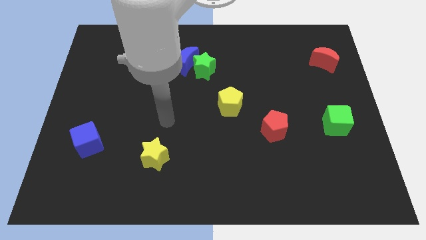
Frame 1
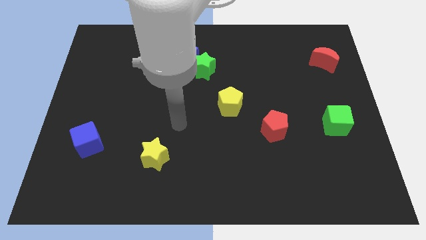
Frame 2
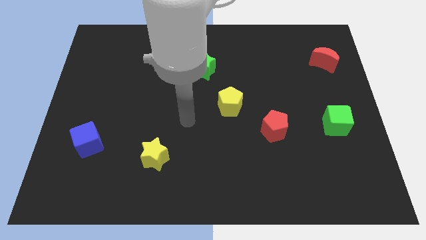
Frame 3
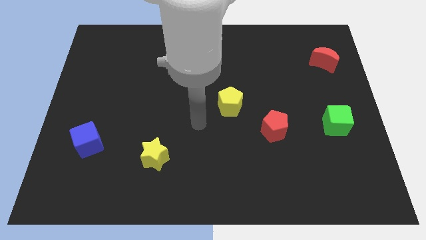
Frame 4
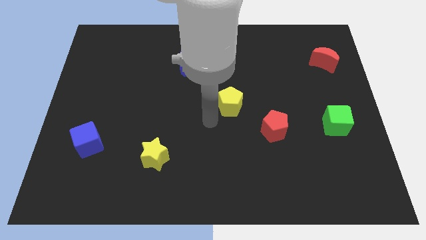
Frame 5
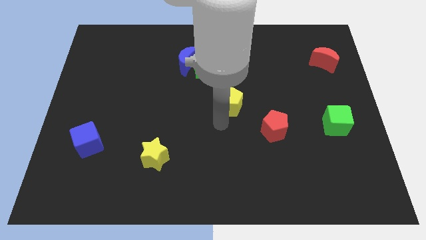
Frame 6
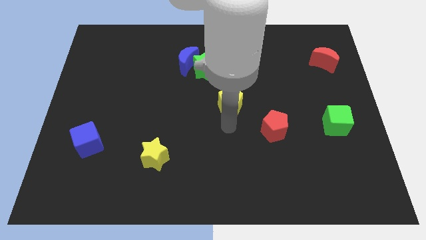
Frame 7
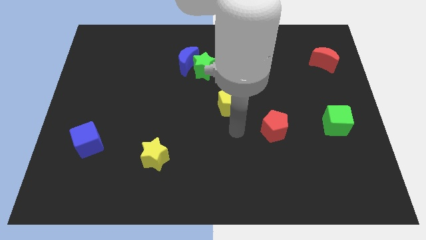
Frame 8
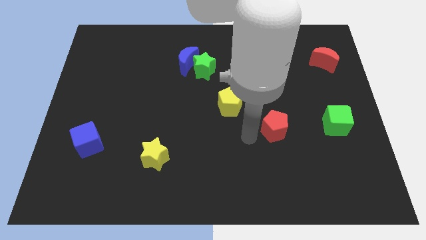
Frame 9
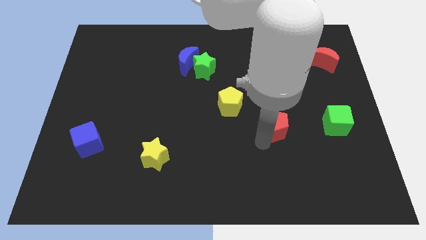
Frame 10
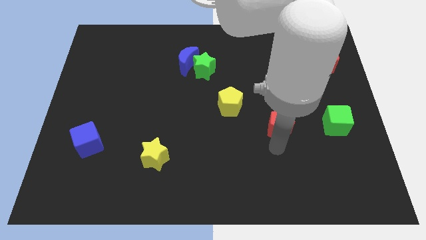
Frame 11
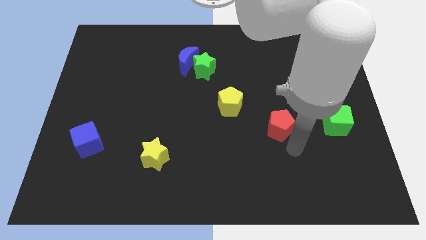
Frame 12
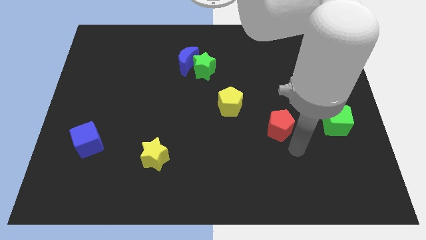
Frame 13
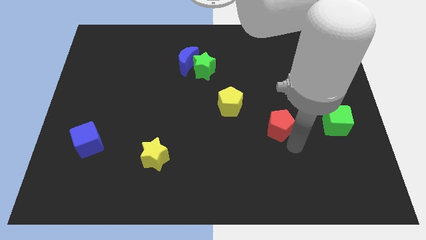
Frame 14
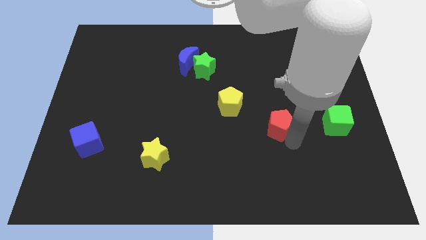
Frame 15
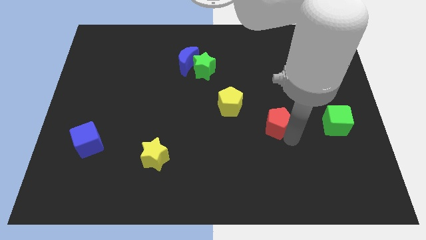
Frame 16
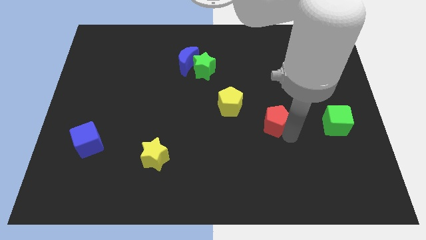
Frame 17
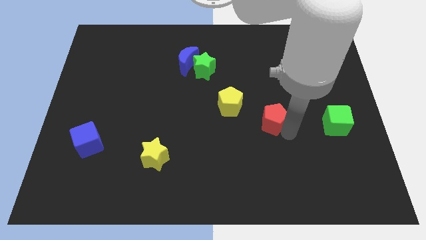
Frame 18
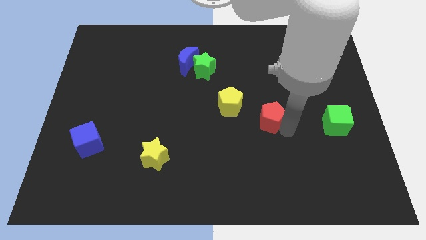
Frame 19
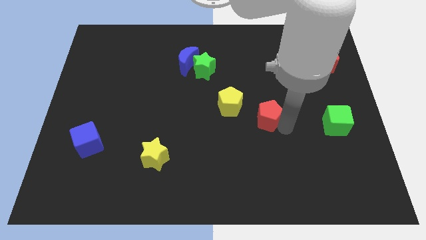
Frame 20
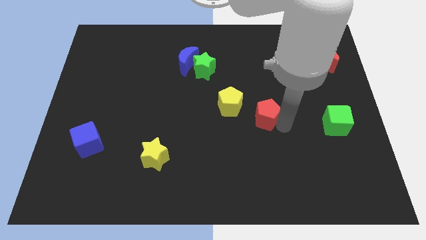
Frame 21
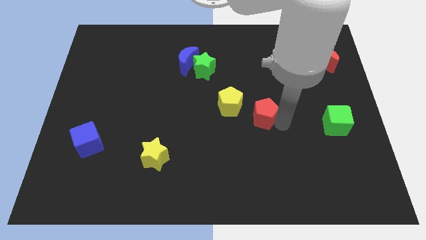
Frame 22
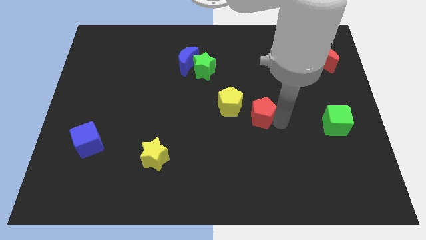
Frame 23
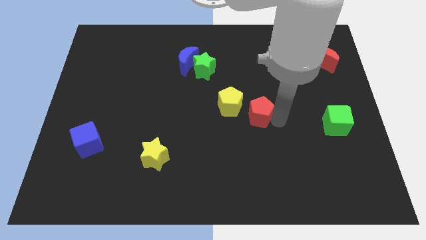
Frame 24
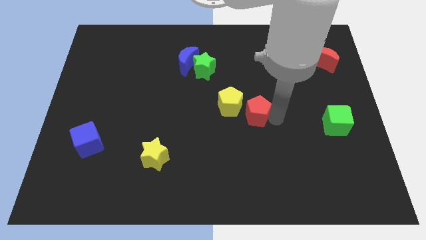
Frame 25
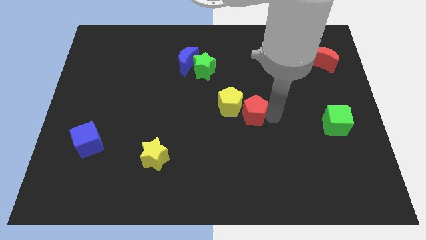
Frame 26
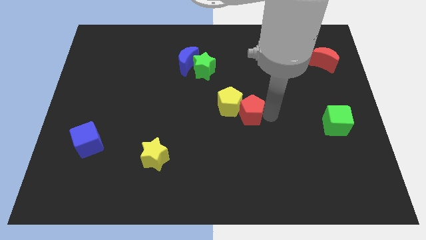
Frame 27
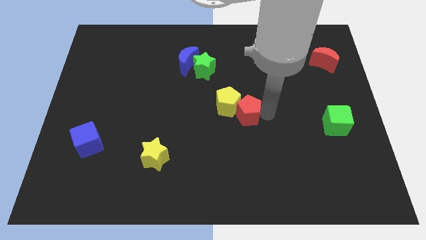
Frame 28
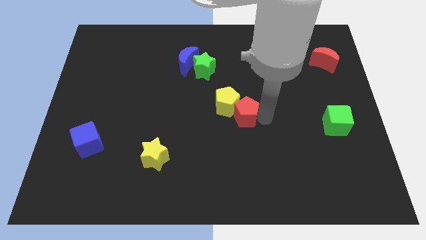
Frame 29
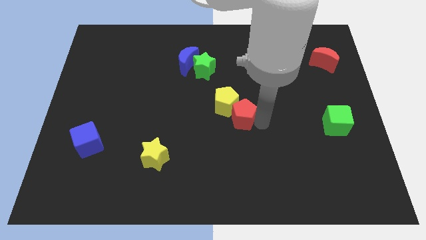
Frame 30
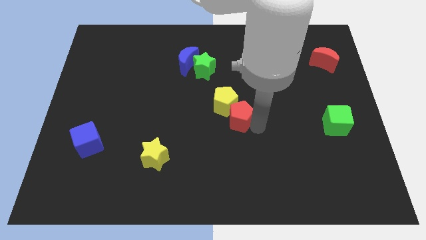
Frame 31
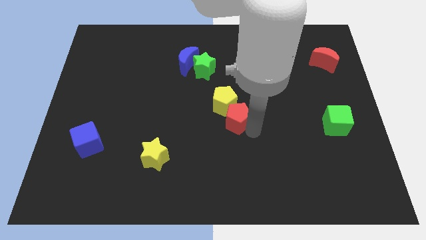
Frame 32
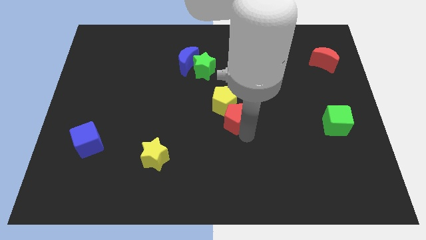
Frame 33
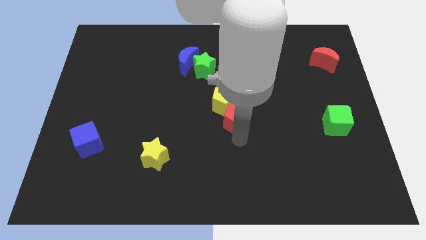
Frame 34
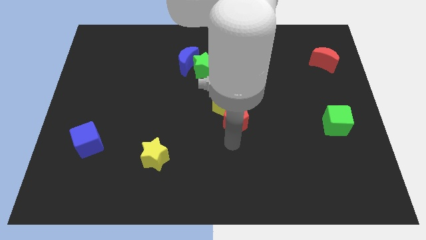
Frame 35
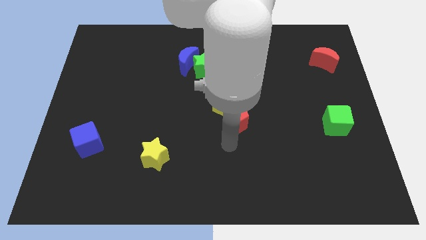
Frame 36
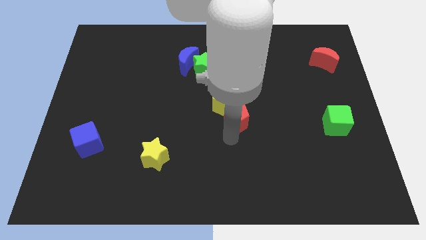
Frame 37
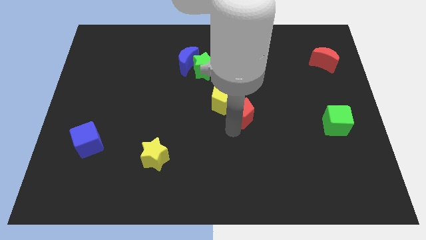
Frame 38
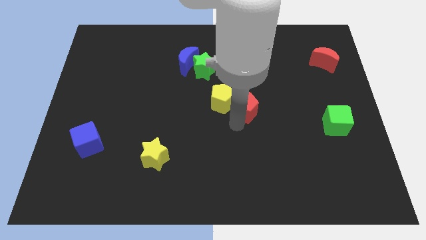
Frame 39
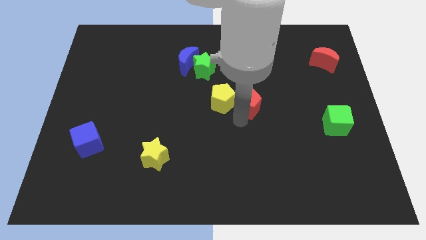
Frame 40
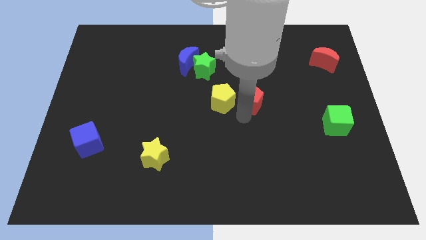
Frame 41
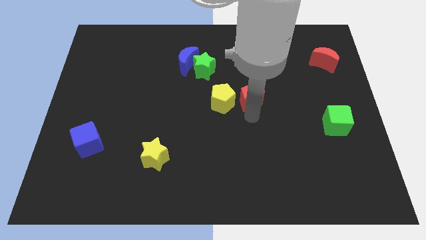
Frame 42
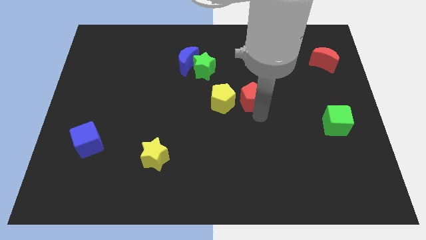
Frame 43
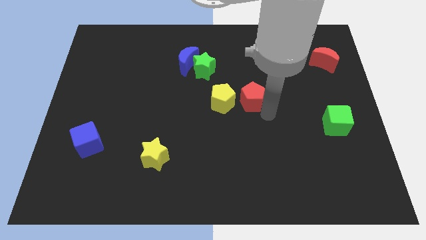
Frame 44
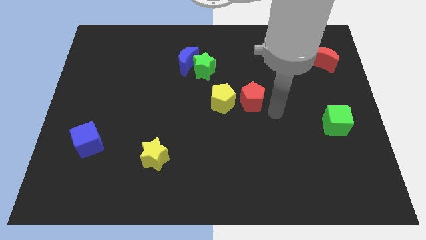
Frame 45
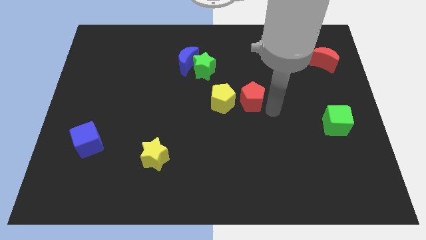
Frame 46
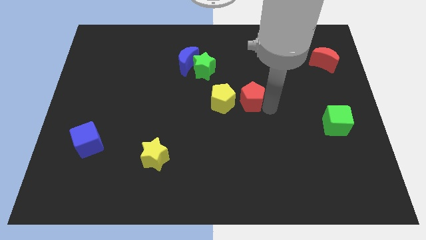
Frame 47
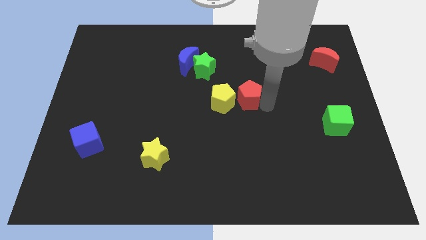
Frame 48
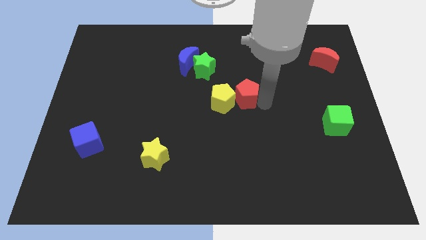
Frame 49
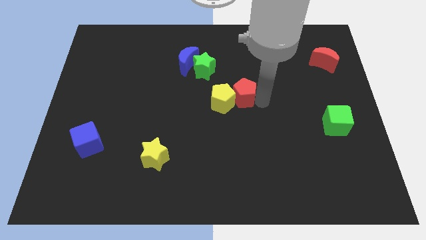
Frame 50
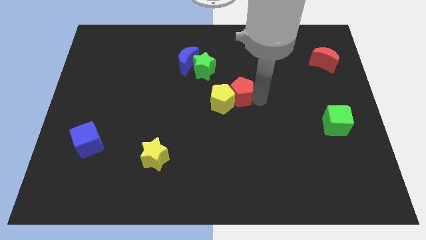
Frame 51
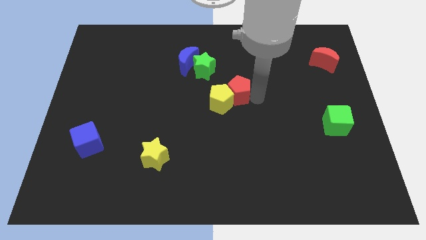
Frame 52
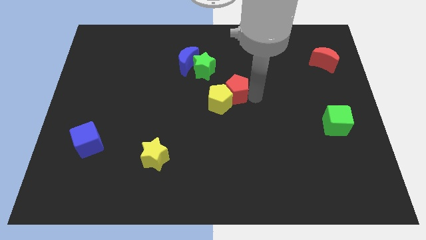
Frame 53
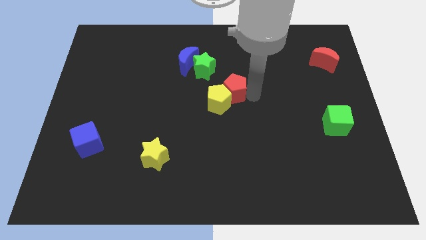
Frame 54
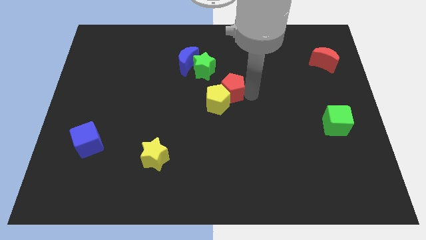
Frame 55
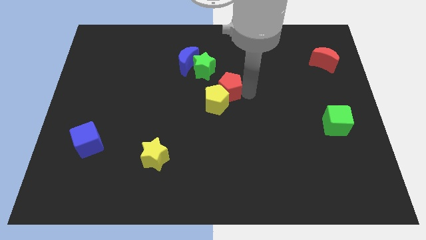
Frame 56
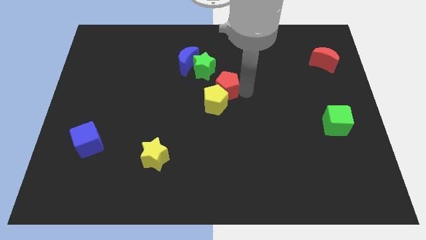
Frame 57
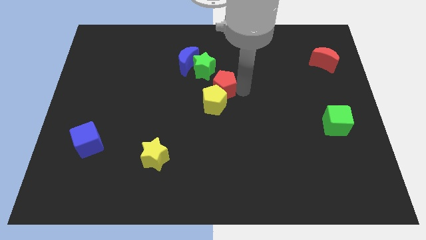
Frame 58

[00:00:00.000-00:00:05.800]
move the red pentagon to the bottom right of the blue moon
